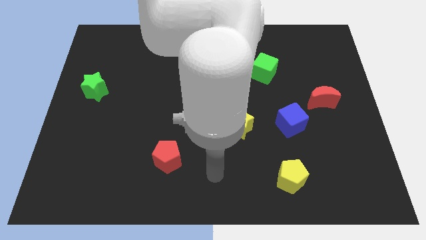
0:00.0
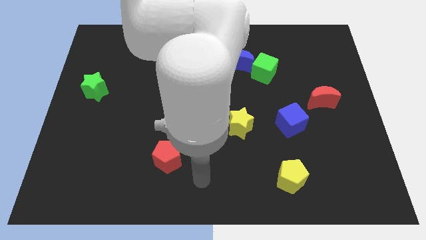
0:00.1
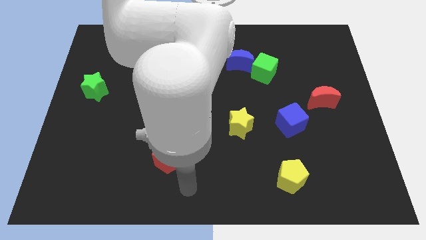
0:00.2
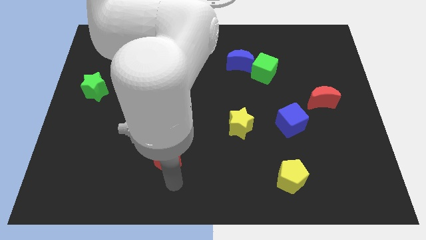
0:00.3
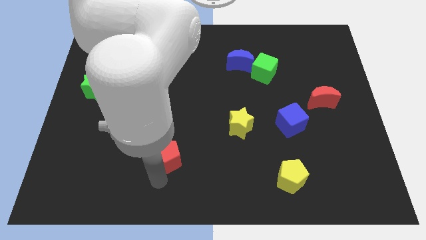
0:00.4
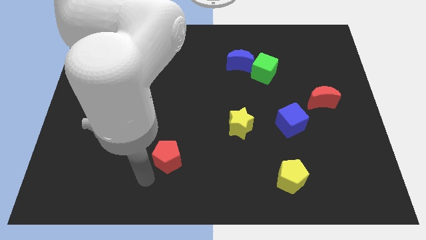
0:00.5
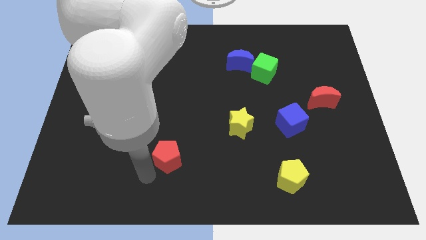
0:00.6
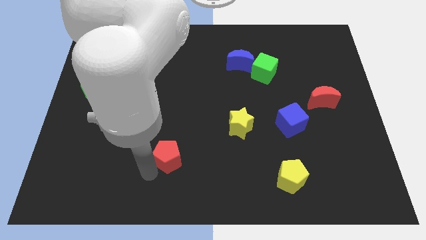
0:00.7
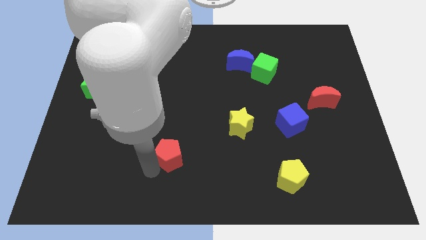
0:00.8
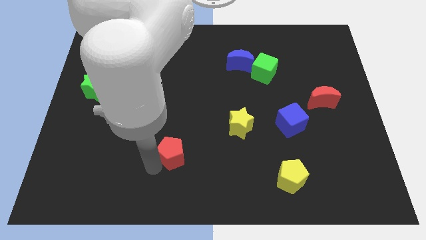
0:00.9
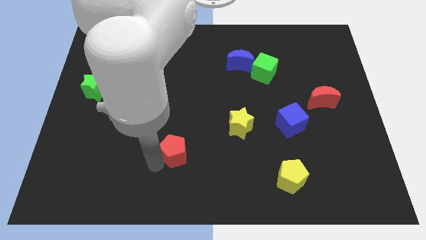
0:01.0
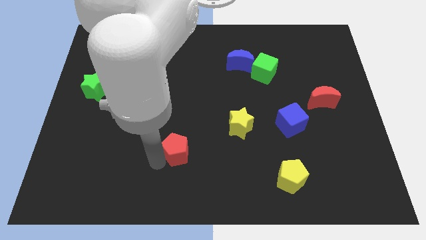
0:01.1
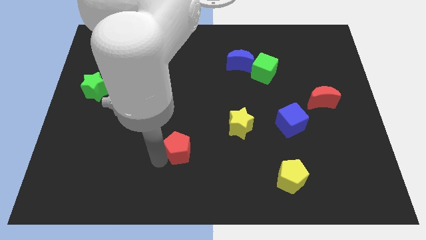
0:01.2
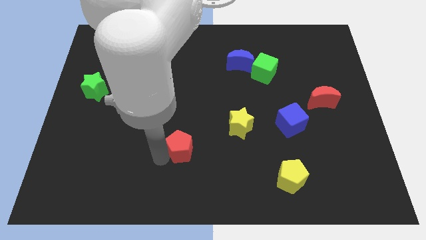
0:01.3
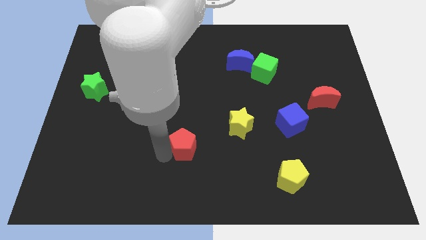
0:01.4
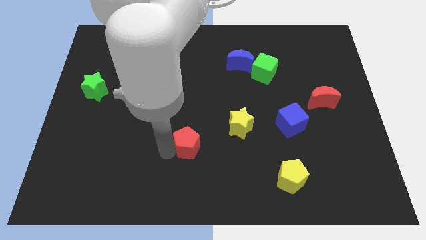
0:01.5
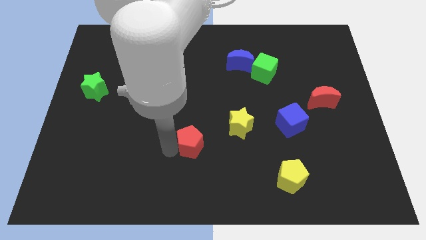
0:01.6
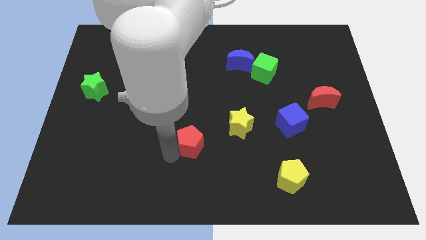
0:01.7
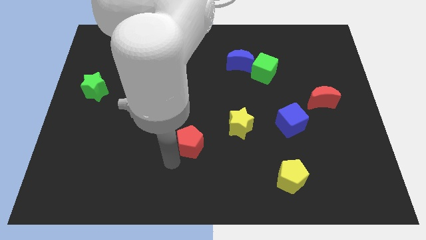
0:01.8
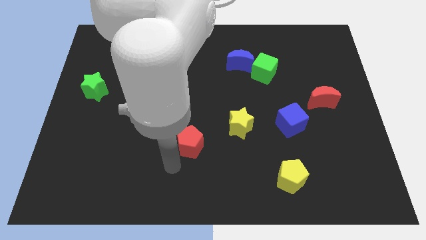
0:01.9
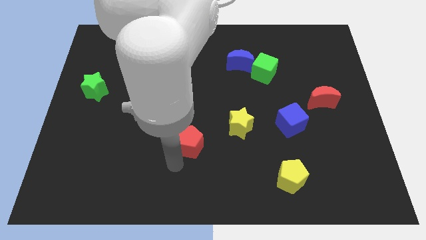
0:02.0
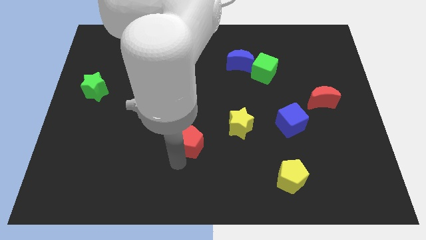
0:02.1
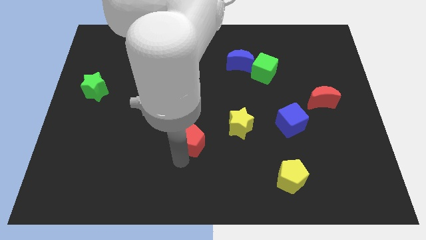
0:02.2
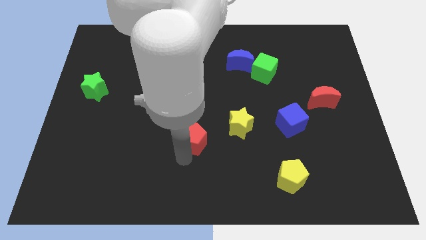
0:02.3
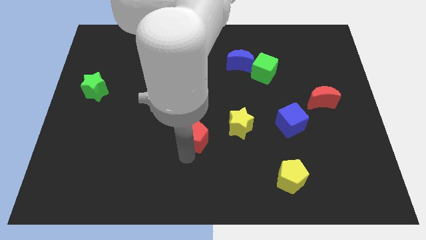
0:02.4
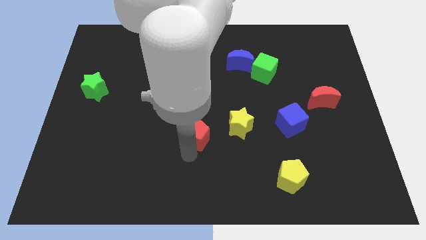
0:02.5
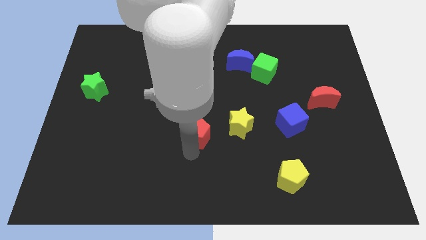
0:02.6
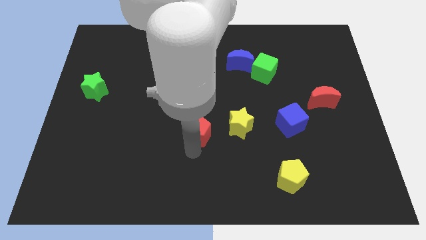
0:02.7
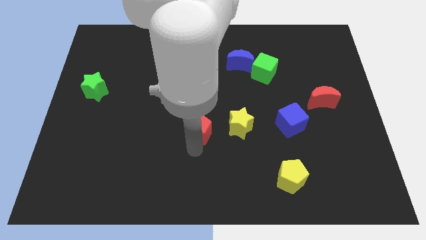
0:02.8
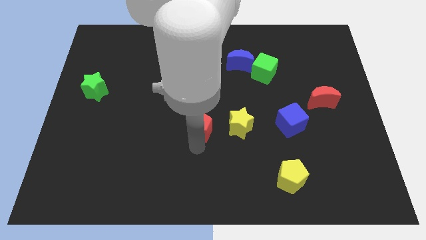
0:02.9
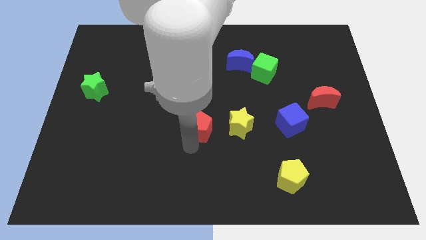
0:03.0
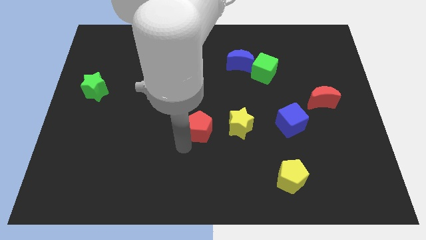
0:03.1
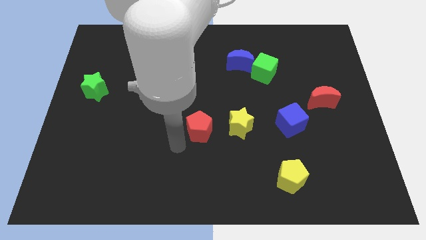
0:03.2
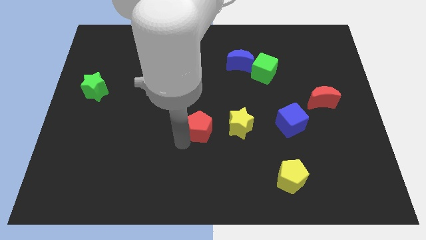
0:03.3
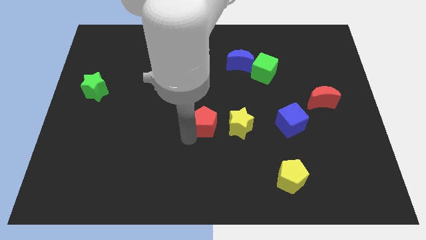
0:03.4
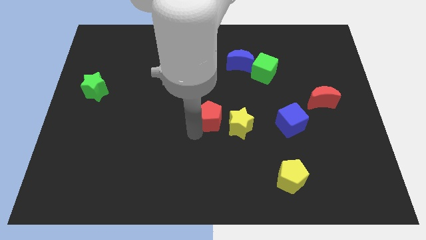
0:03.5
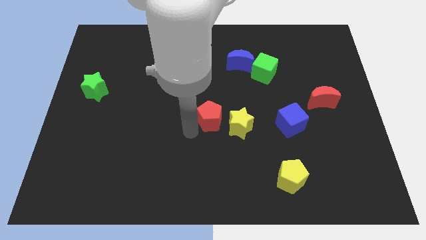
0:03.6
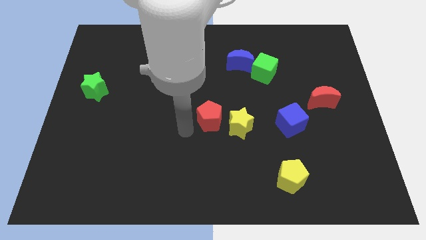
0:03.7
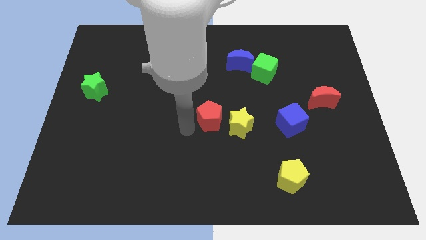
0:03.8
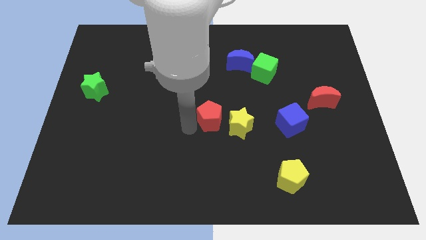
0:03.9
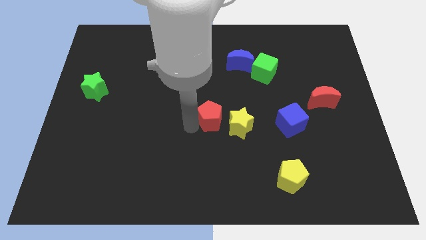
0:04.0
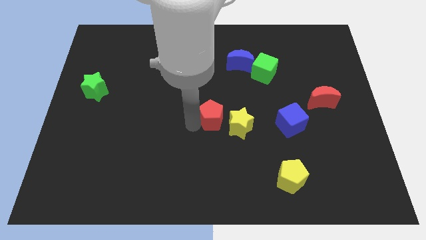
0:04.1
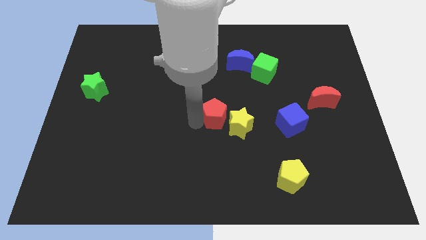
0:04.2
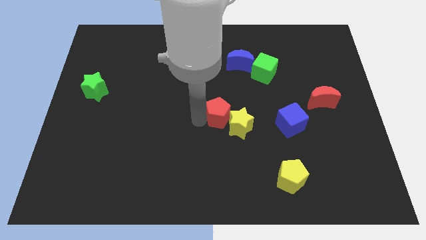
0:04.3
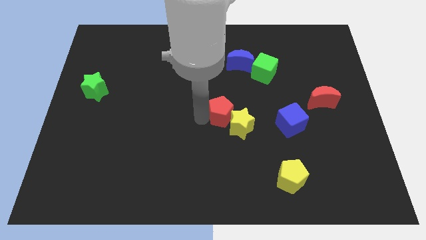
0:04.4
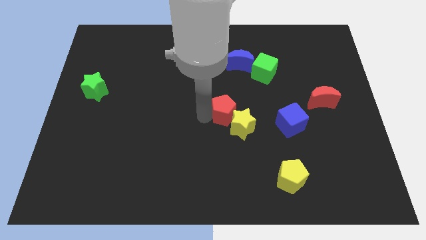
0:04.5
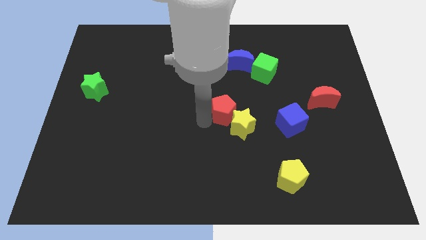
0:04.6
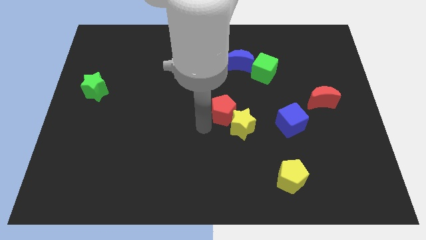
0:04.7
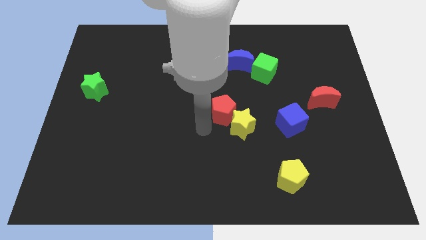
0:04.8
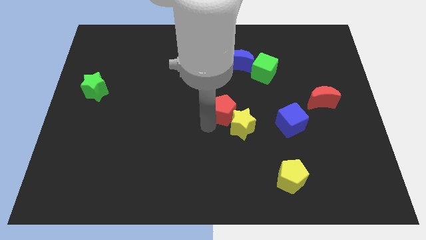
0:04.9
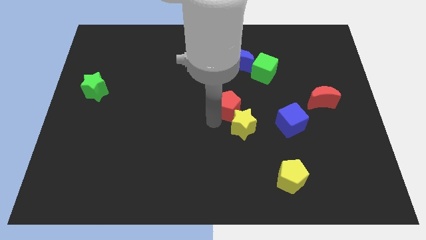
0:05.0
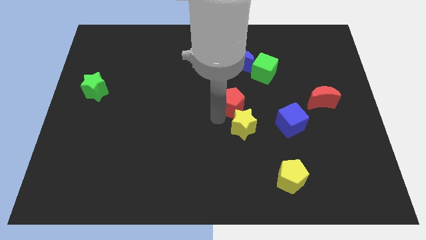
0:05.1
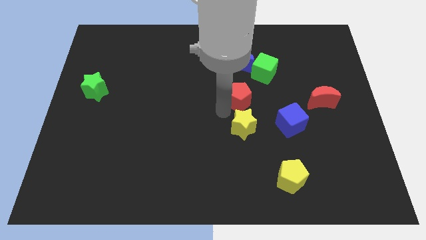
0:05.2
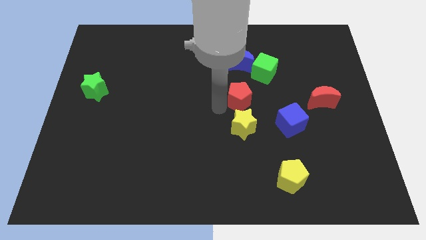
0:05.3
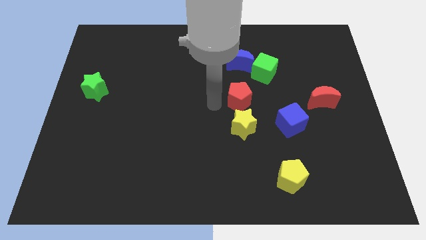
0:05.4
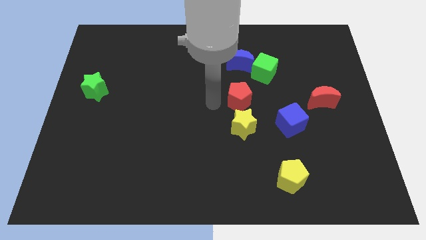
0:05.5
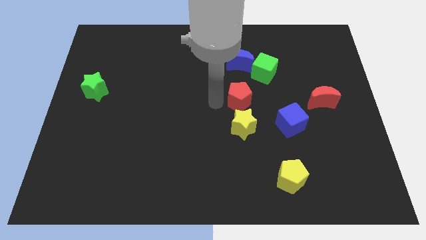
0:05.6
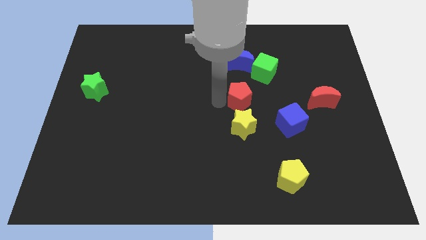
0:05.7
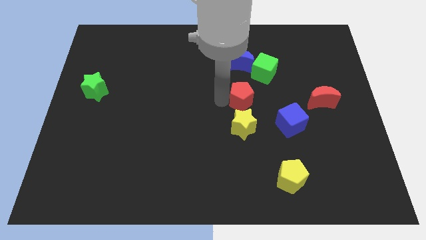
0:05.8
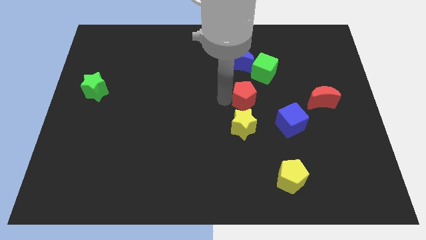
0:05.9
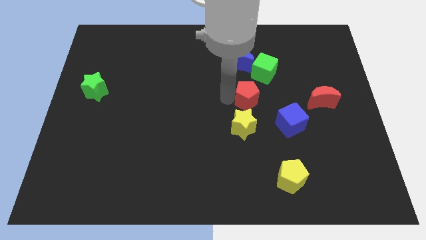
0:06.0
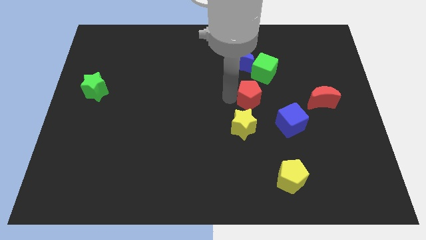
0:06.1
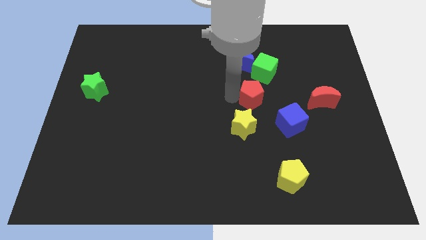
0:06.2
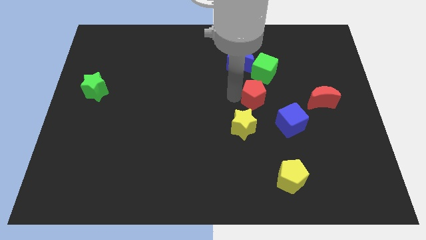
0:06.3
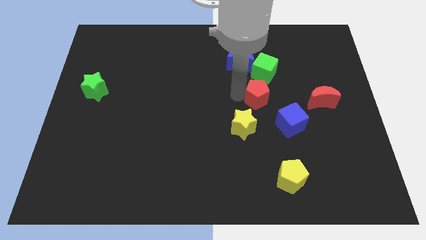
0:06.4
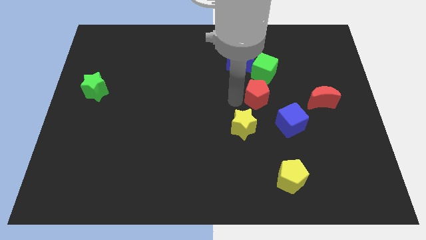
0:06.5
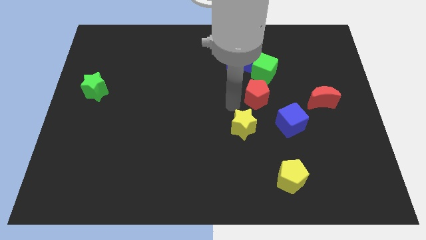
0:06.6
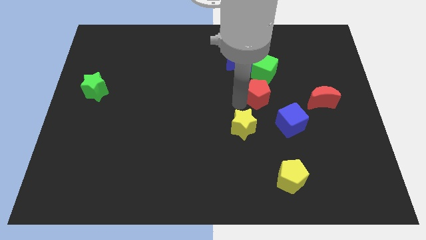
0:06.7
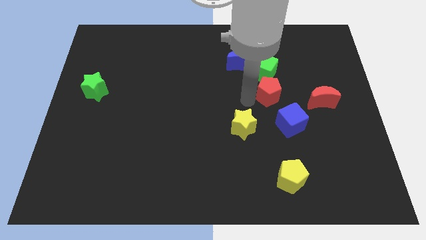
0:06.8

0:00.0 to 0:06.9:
move the red pentagon to the bottom right side of the green cube

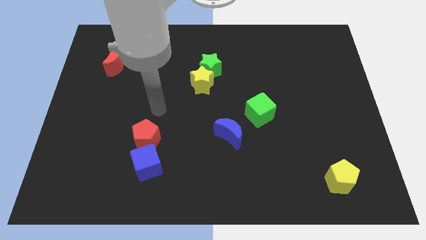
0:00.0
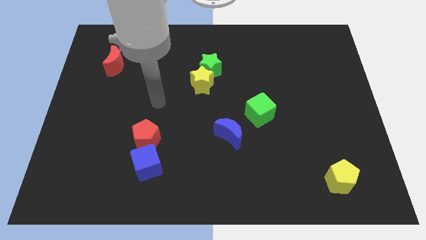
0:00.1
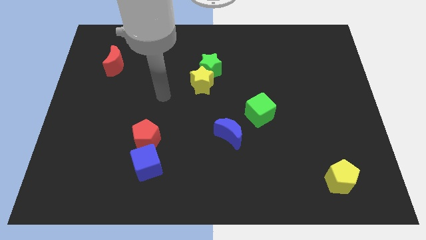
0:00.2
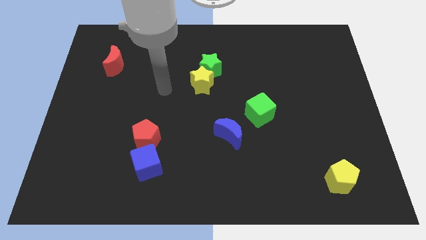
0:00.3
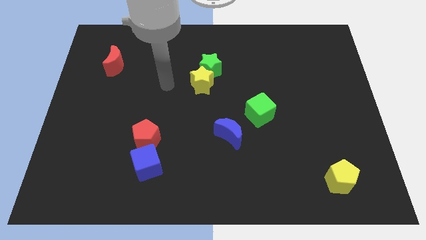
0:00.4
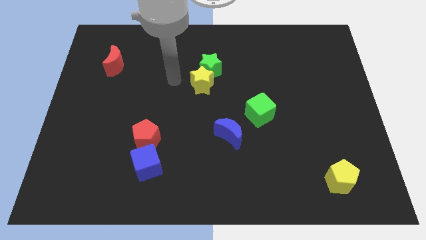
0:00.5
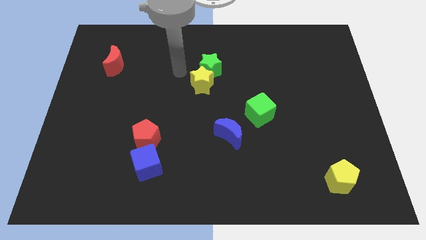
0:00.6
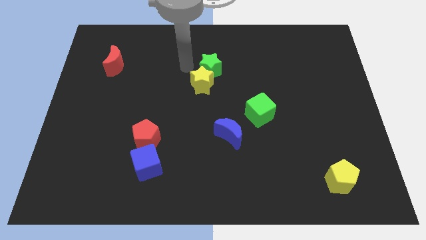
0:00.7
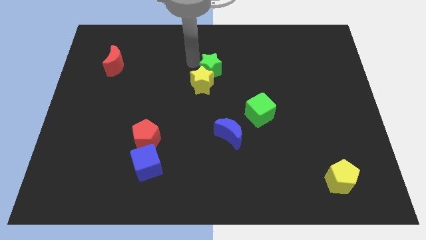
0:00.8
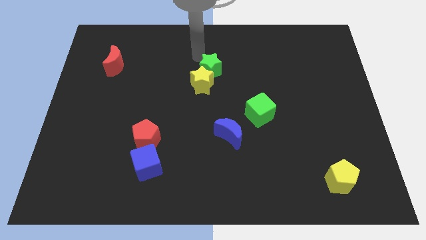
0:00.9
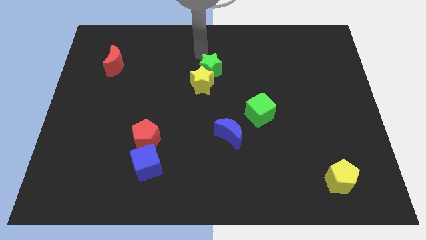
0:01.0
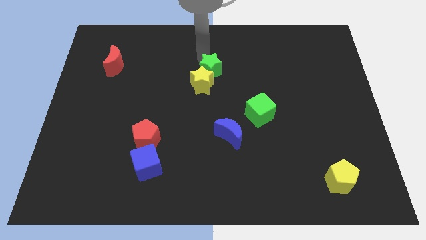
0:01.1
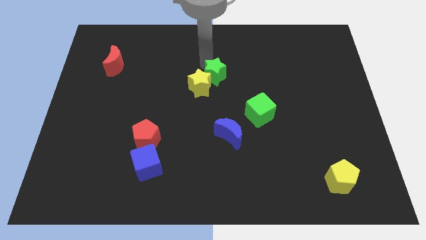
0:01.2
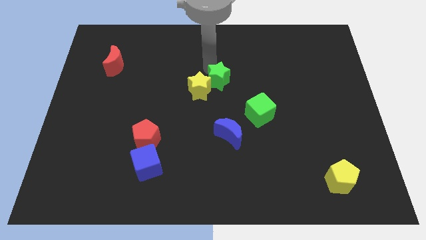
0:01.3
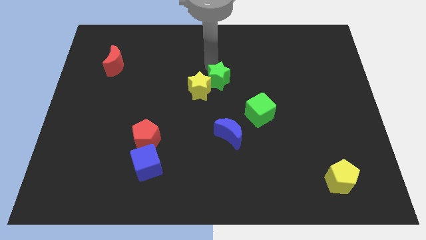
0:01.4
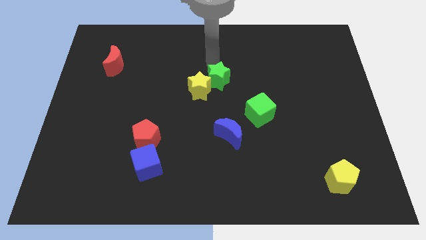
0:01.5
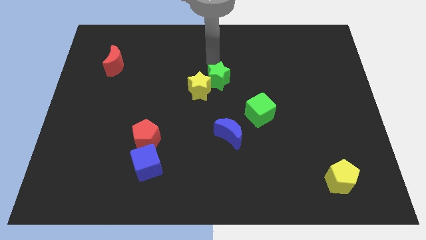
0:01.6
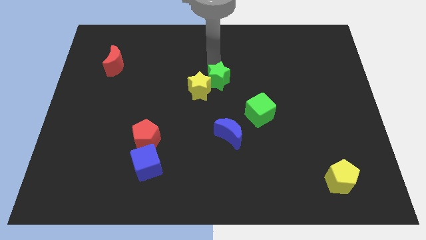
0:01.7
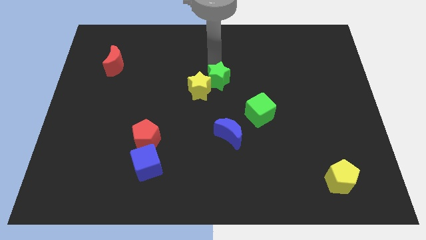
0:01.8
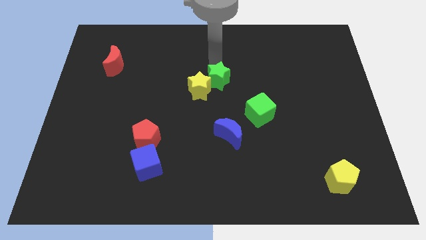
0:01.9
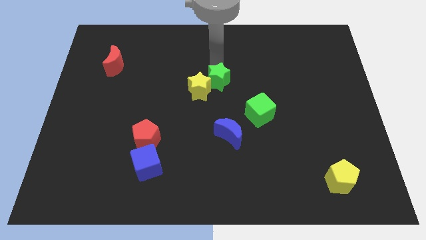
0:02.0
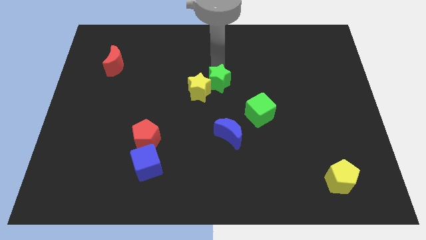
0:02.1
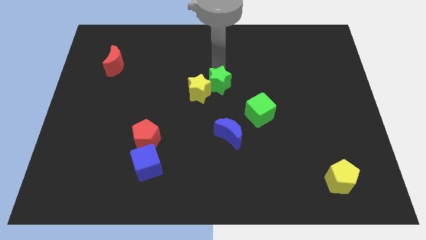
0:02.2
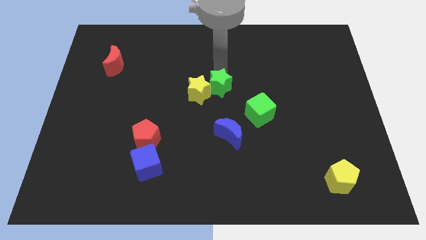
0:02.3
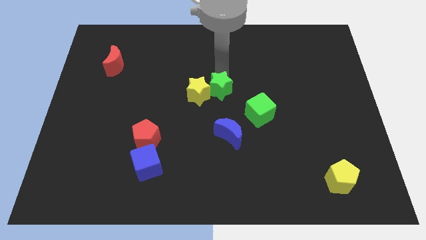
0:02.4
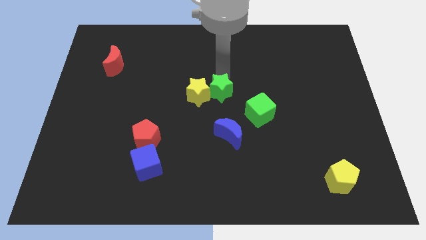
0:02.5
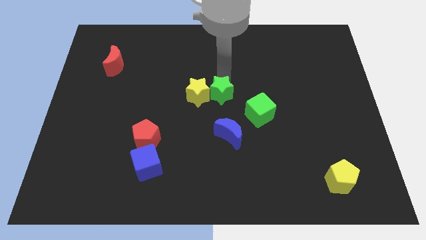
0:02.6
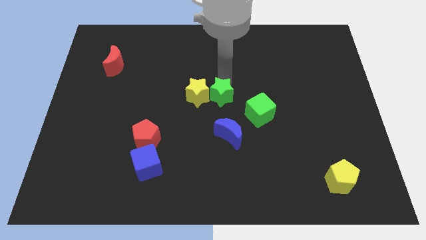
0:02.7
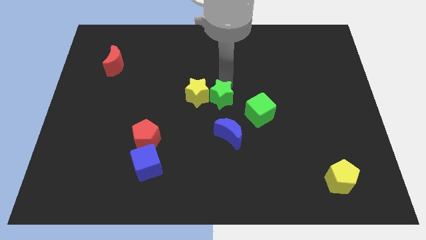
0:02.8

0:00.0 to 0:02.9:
move the green star to the left side of the green cube
